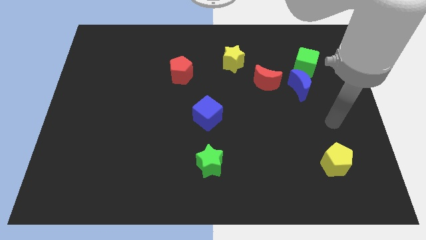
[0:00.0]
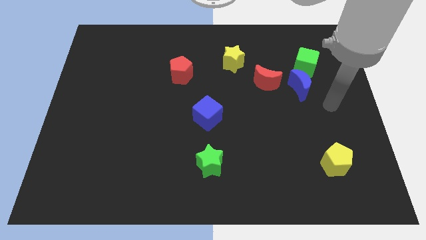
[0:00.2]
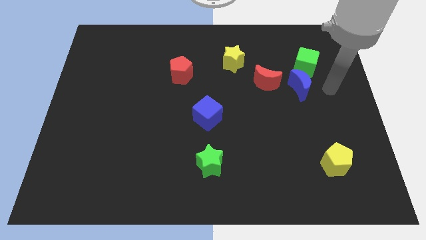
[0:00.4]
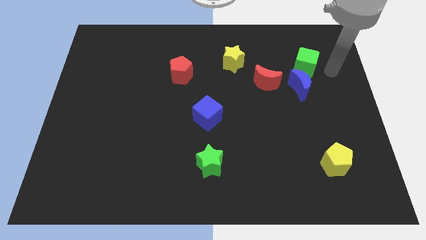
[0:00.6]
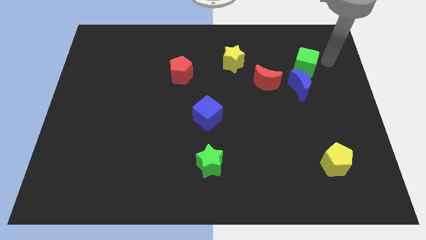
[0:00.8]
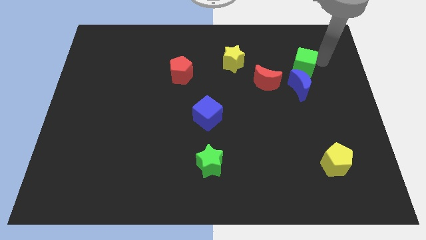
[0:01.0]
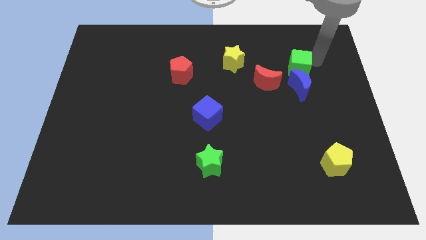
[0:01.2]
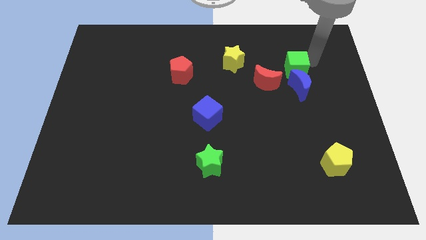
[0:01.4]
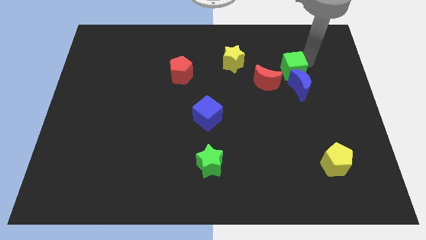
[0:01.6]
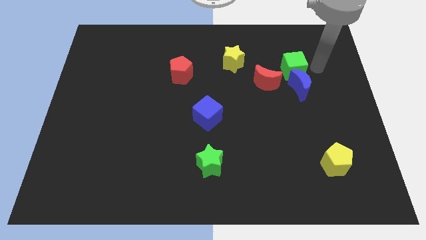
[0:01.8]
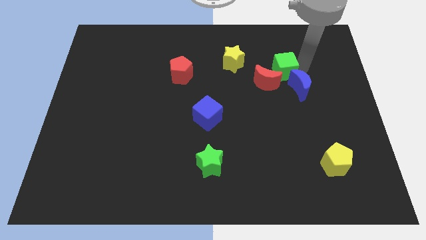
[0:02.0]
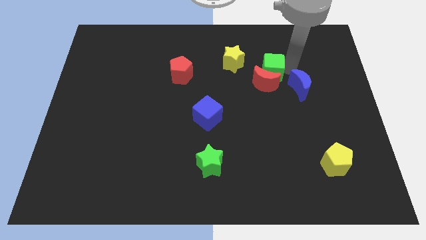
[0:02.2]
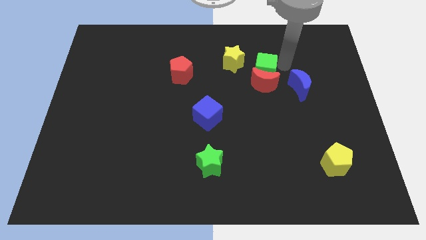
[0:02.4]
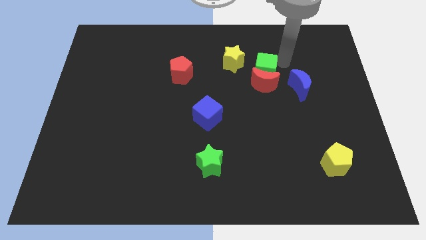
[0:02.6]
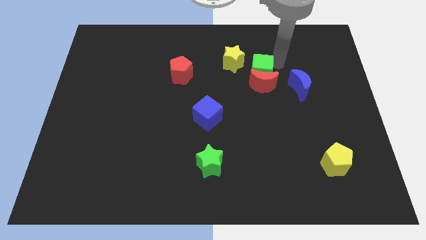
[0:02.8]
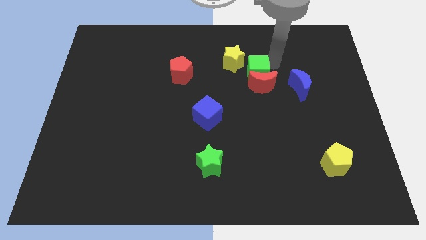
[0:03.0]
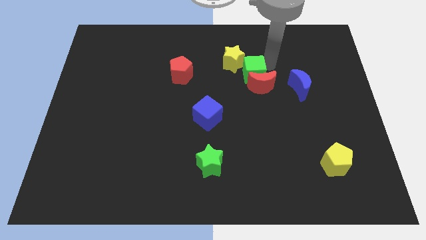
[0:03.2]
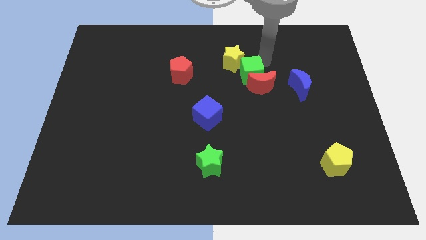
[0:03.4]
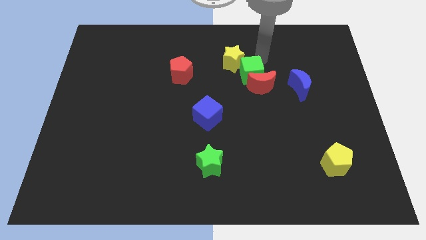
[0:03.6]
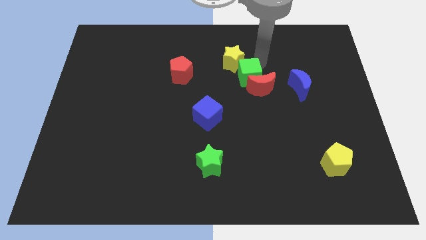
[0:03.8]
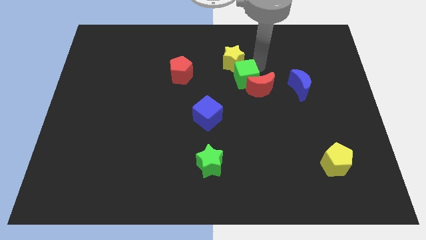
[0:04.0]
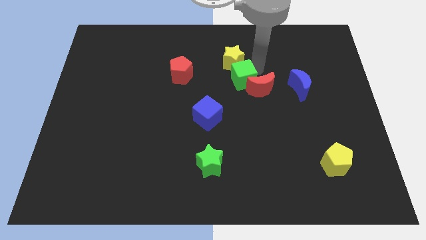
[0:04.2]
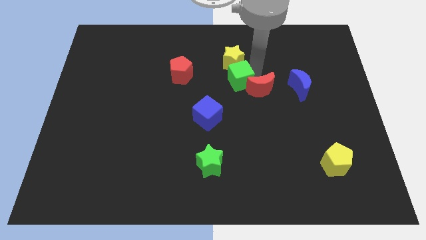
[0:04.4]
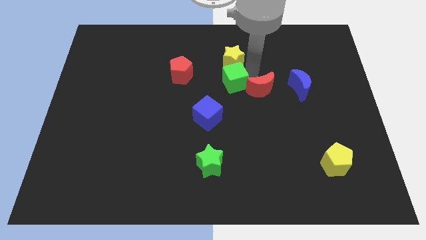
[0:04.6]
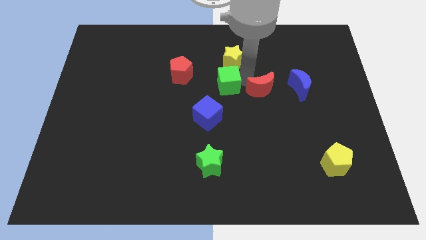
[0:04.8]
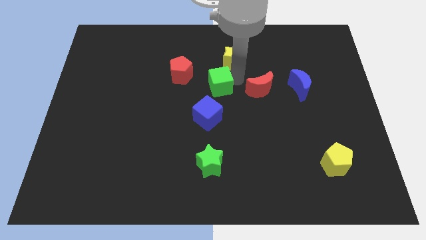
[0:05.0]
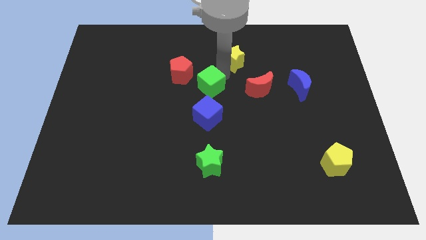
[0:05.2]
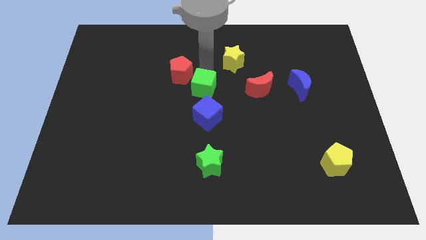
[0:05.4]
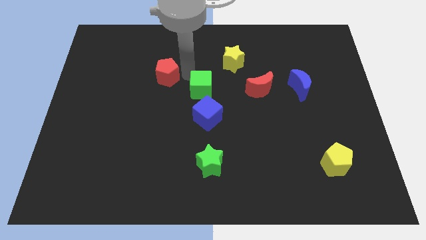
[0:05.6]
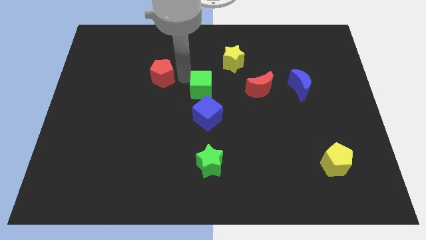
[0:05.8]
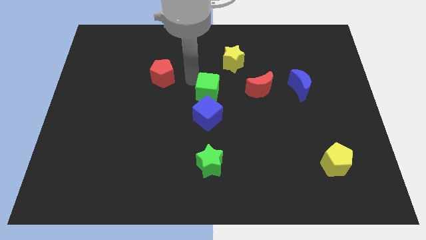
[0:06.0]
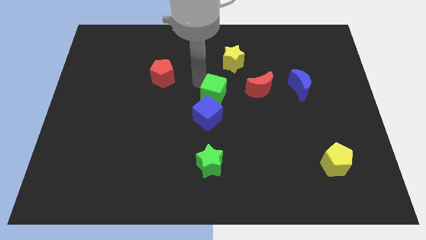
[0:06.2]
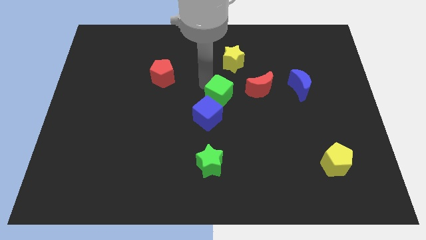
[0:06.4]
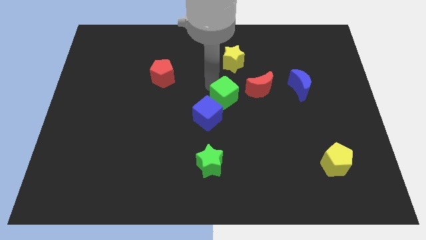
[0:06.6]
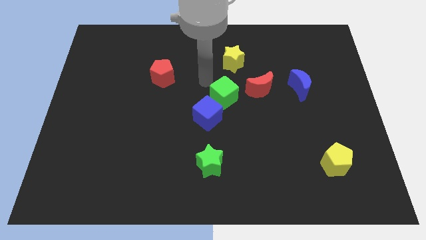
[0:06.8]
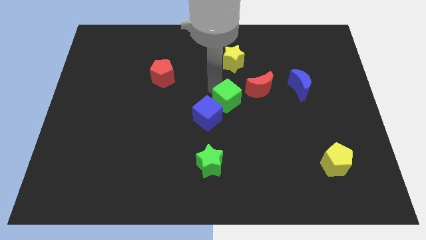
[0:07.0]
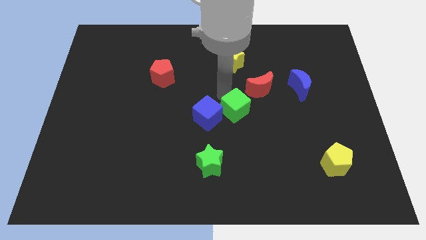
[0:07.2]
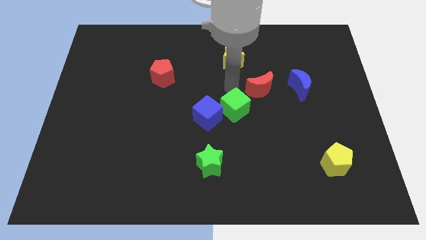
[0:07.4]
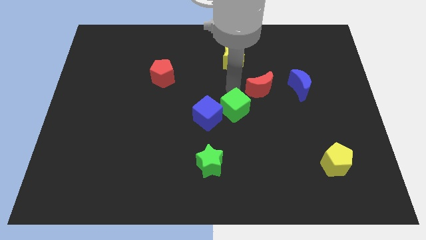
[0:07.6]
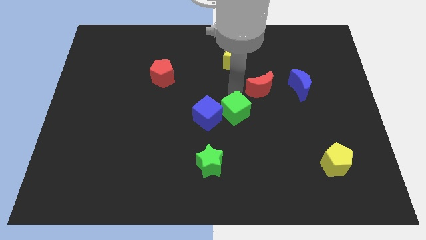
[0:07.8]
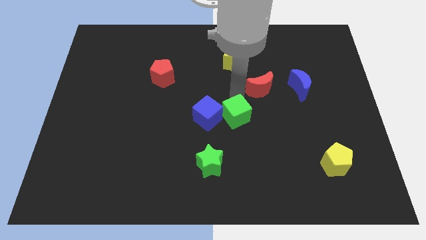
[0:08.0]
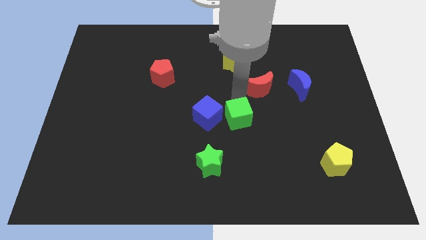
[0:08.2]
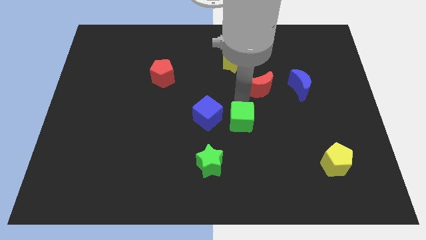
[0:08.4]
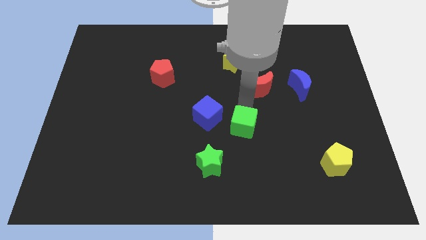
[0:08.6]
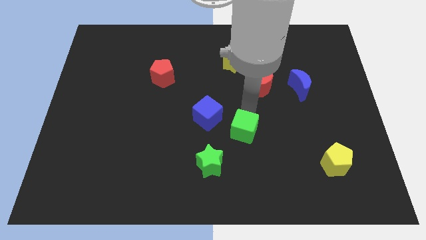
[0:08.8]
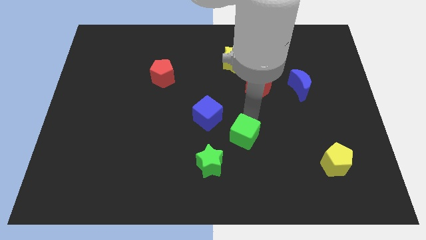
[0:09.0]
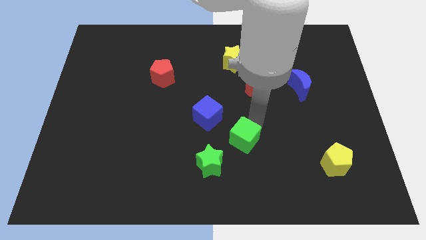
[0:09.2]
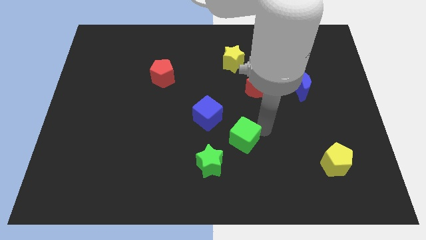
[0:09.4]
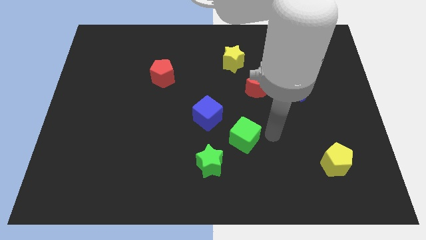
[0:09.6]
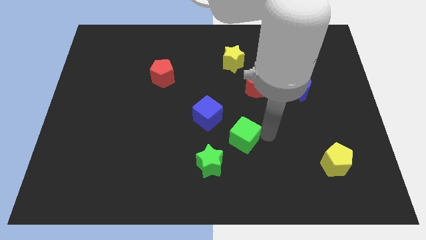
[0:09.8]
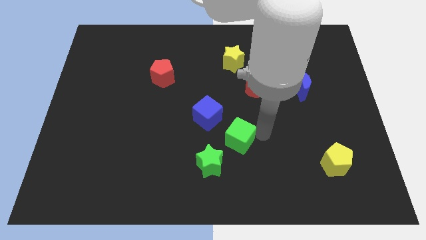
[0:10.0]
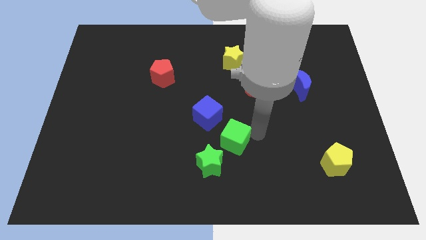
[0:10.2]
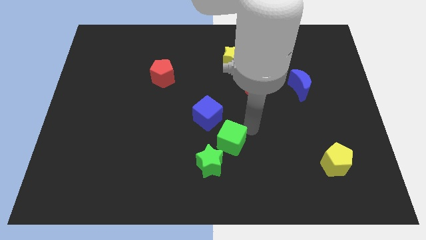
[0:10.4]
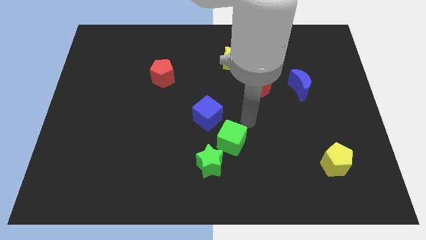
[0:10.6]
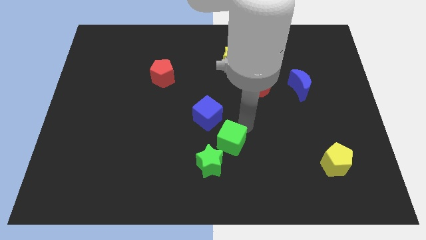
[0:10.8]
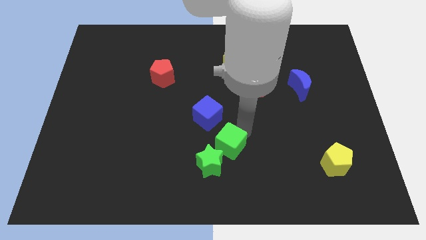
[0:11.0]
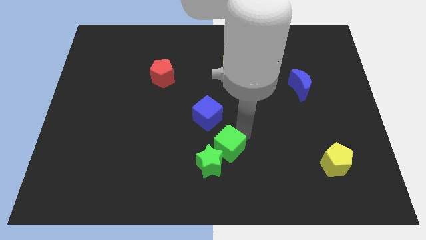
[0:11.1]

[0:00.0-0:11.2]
put the green cube to the green star

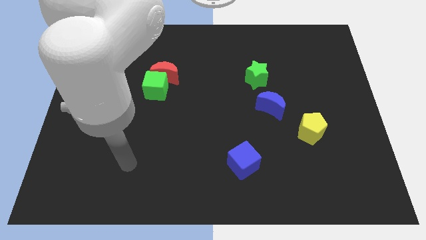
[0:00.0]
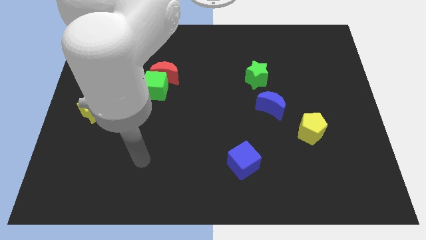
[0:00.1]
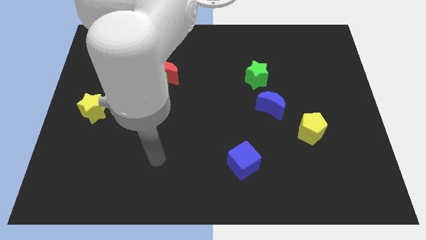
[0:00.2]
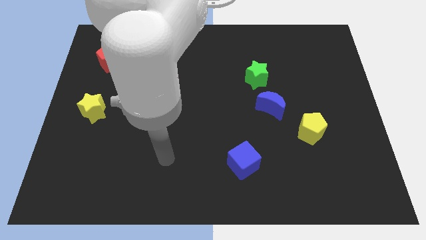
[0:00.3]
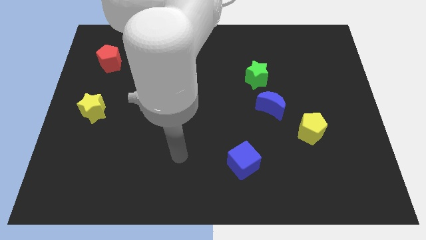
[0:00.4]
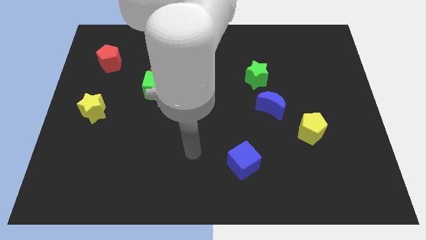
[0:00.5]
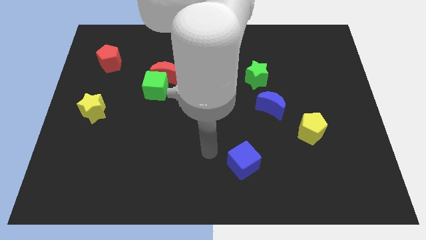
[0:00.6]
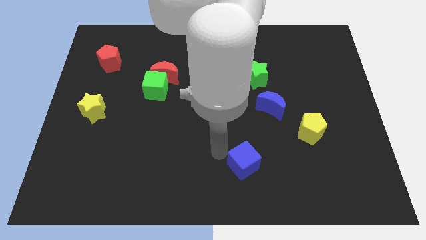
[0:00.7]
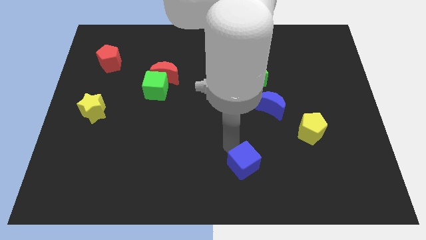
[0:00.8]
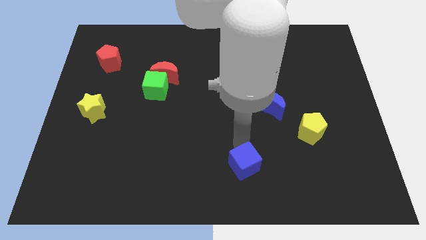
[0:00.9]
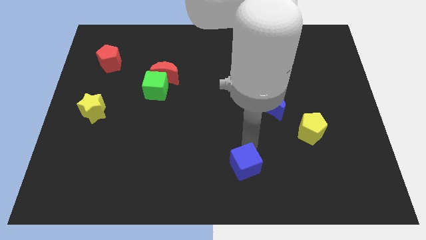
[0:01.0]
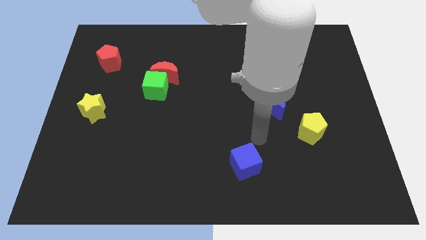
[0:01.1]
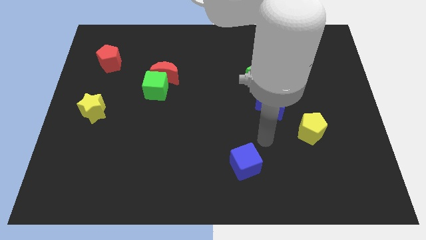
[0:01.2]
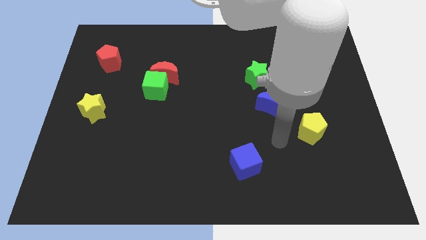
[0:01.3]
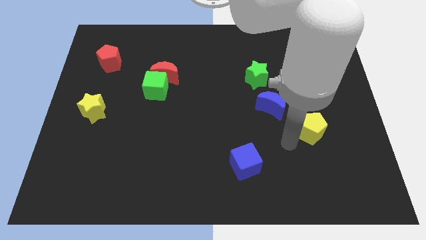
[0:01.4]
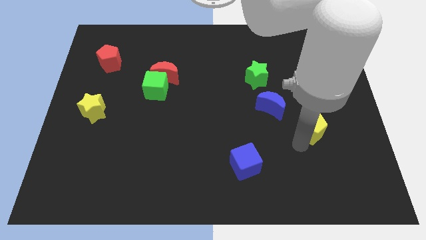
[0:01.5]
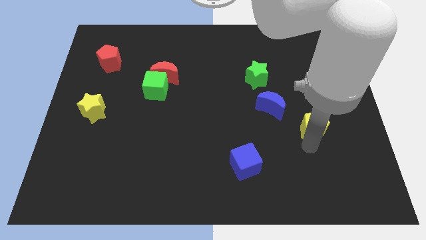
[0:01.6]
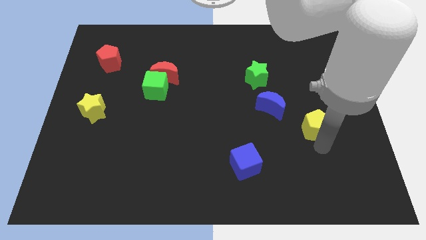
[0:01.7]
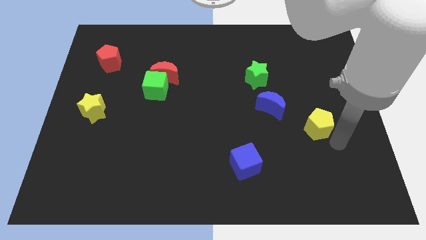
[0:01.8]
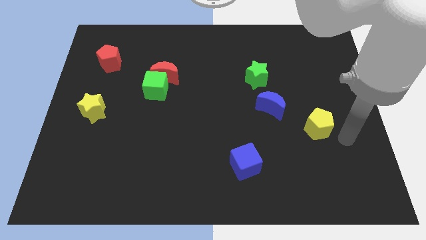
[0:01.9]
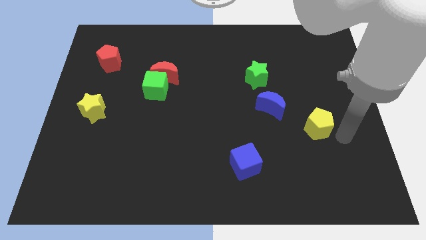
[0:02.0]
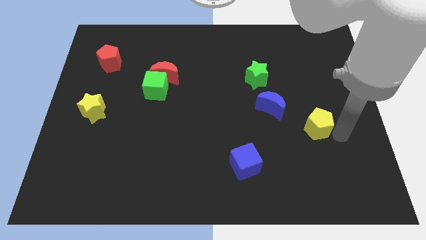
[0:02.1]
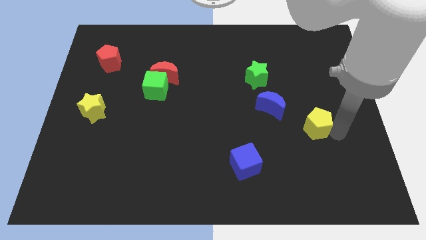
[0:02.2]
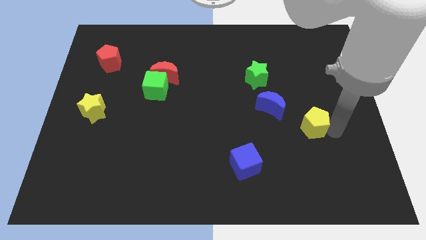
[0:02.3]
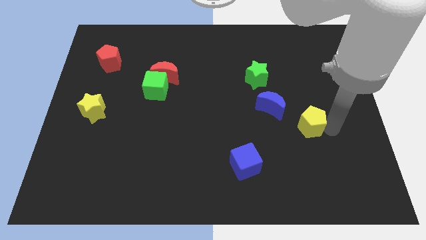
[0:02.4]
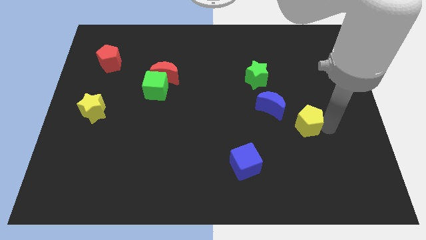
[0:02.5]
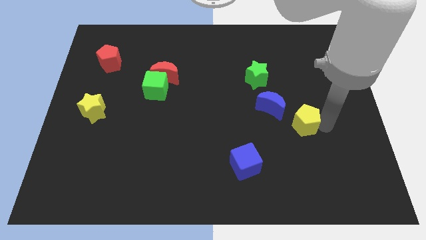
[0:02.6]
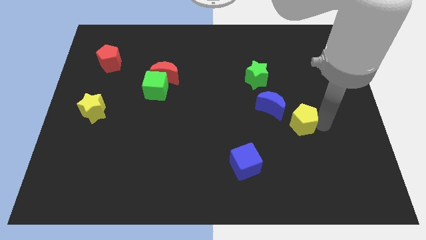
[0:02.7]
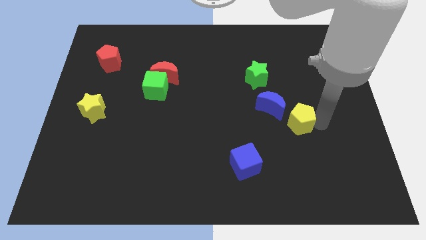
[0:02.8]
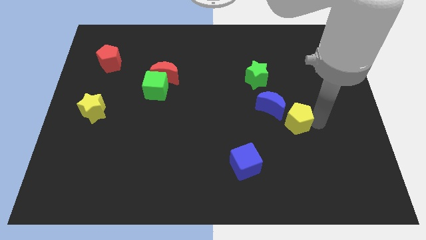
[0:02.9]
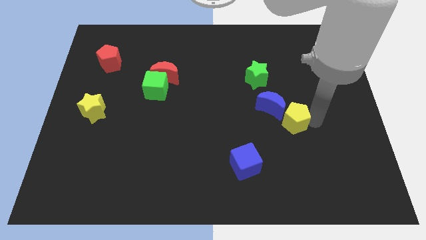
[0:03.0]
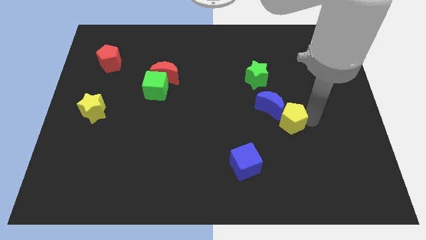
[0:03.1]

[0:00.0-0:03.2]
put the yellow pentagon towards the blue moon
